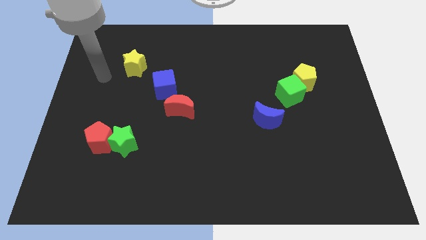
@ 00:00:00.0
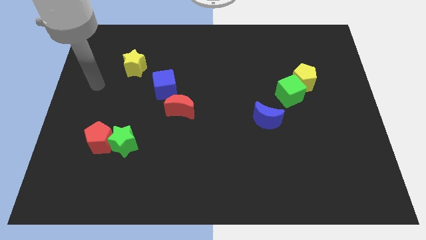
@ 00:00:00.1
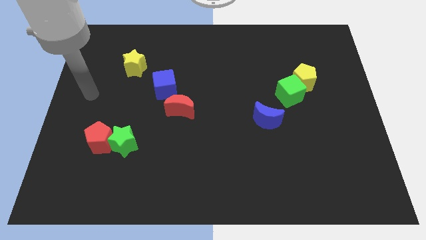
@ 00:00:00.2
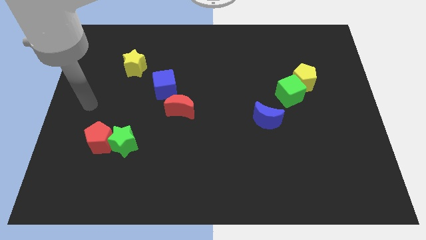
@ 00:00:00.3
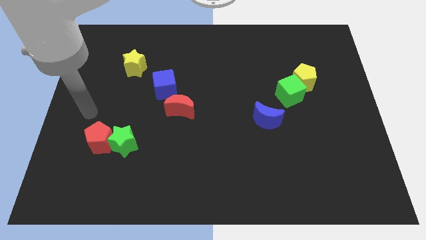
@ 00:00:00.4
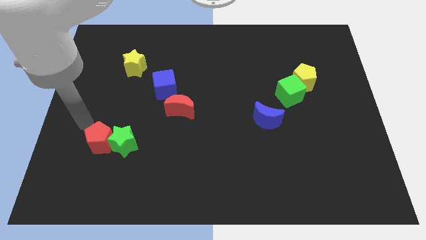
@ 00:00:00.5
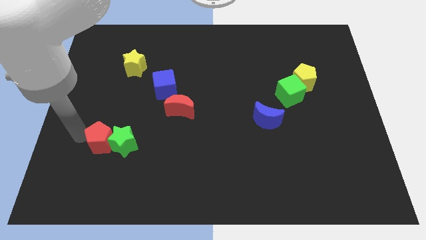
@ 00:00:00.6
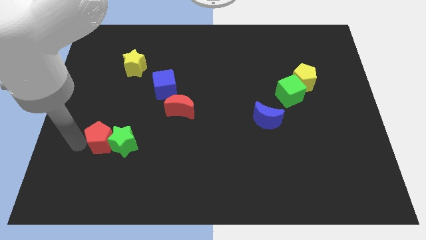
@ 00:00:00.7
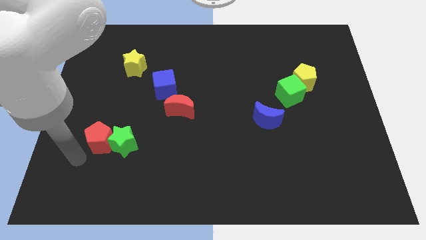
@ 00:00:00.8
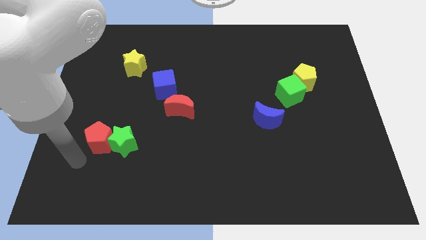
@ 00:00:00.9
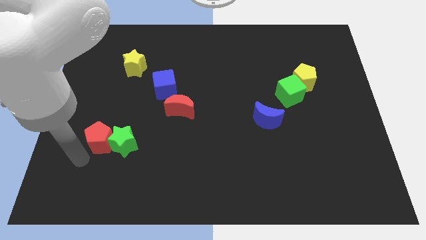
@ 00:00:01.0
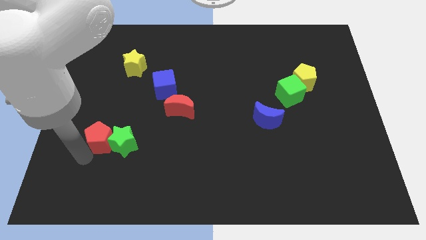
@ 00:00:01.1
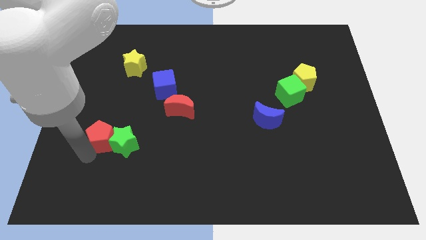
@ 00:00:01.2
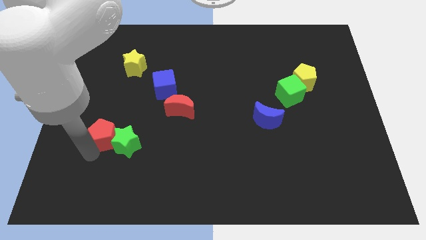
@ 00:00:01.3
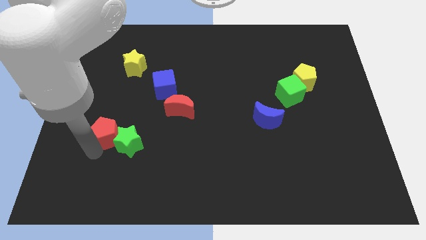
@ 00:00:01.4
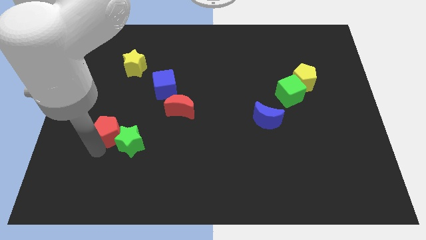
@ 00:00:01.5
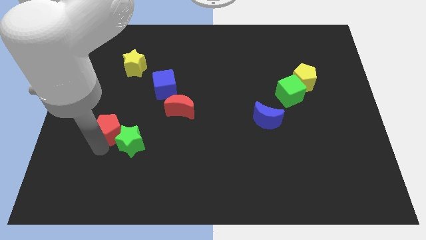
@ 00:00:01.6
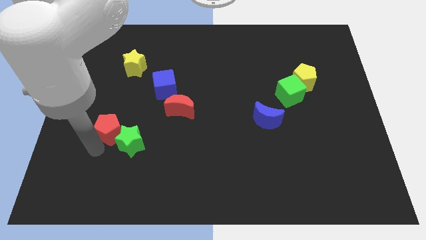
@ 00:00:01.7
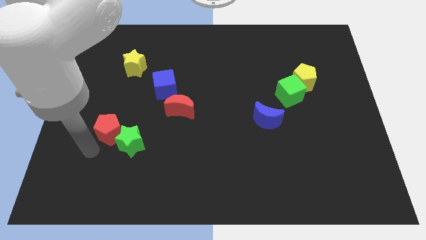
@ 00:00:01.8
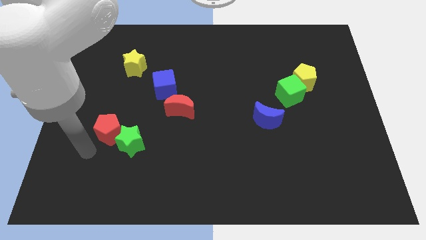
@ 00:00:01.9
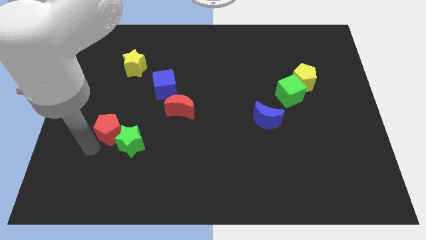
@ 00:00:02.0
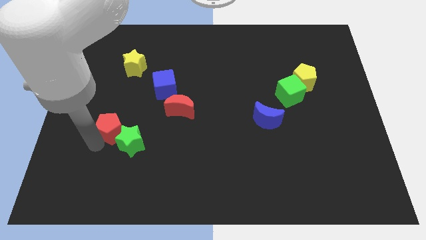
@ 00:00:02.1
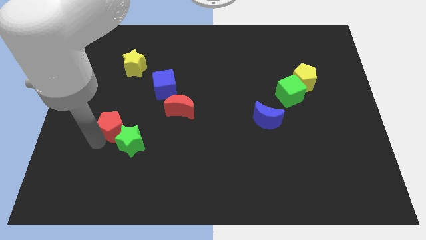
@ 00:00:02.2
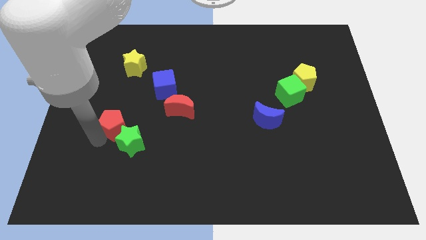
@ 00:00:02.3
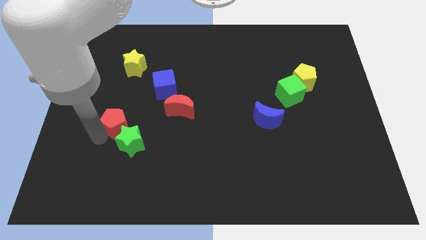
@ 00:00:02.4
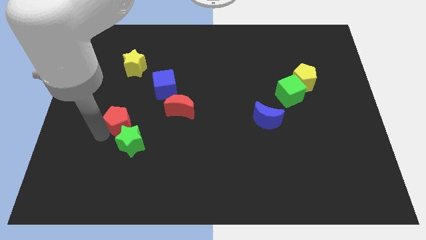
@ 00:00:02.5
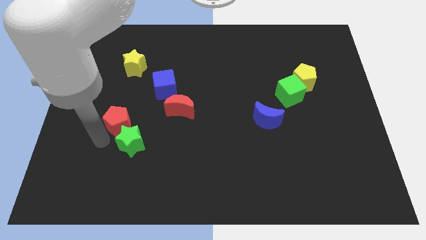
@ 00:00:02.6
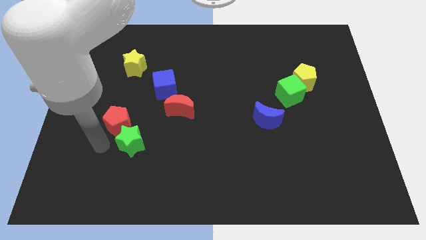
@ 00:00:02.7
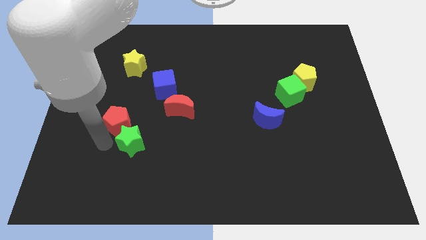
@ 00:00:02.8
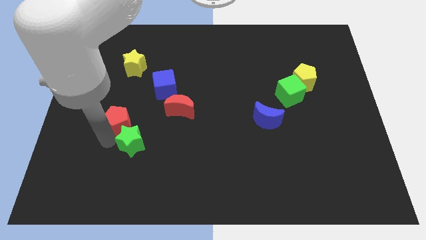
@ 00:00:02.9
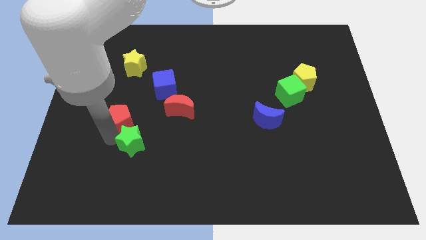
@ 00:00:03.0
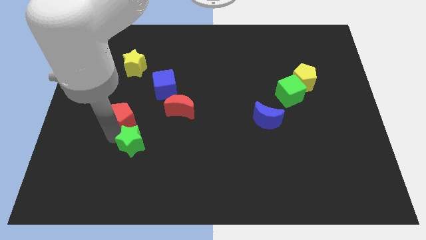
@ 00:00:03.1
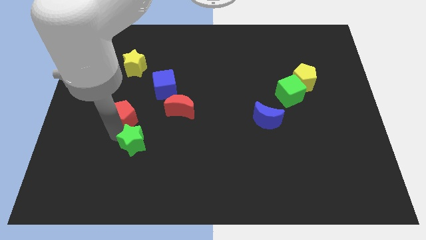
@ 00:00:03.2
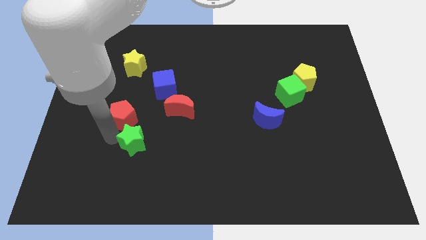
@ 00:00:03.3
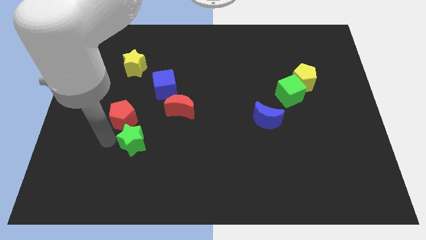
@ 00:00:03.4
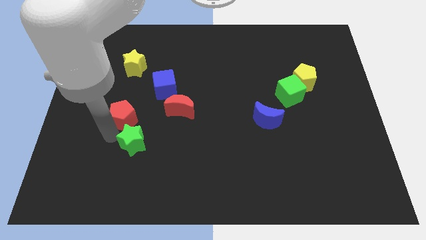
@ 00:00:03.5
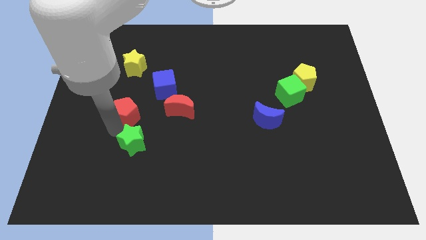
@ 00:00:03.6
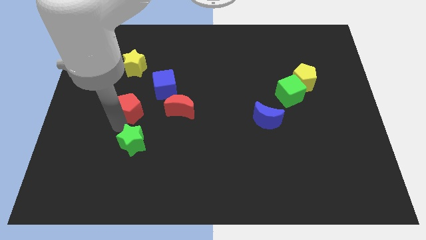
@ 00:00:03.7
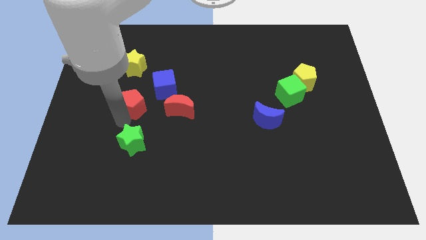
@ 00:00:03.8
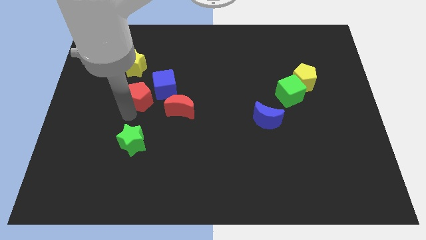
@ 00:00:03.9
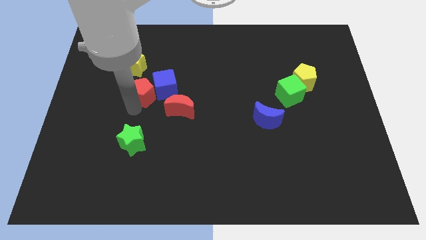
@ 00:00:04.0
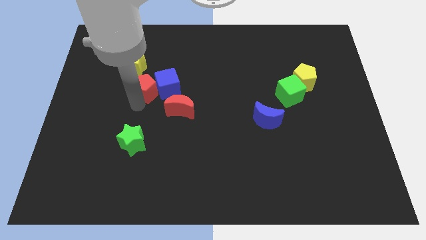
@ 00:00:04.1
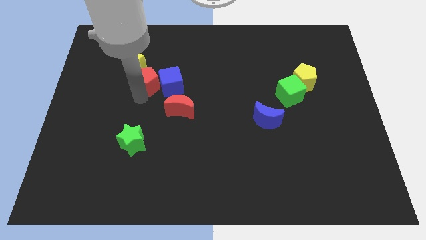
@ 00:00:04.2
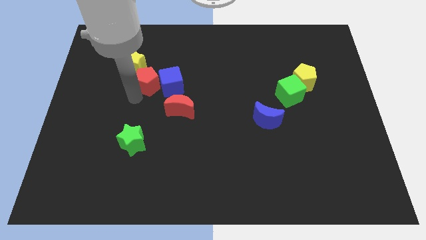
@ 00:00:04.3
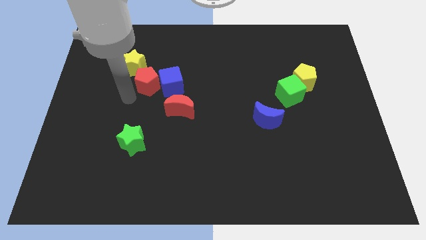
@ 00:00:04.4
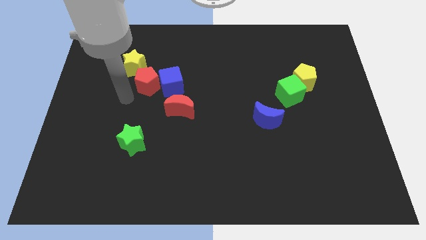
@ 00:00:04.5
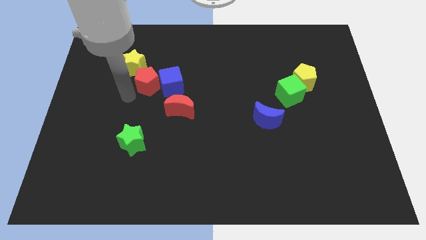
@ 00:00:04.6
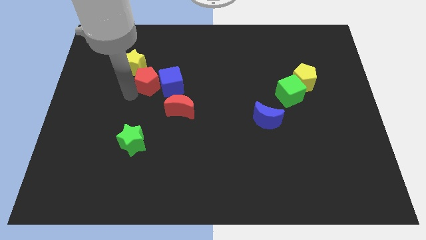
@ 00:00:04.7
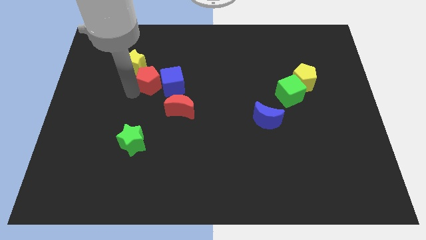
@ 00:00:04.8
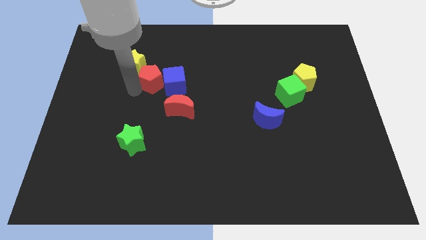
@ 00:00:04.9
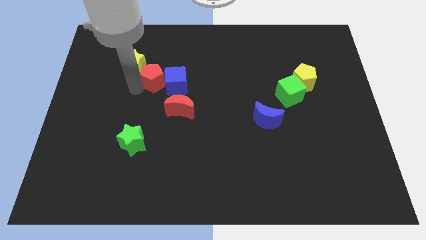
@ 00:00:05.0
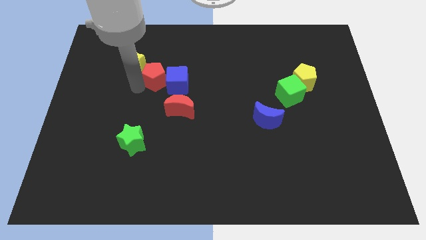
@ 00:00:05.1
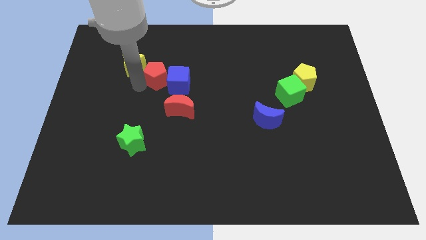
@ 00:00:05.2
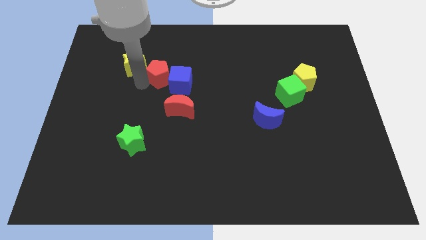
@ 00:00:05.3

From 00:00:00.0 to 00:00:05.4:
slide the red pentagon upwards and right diagonally

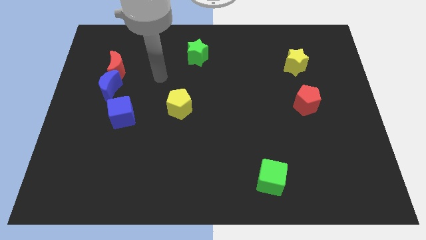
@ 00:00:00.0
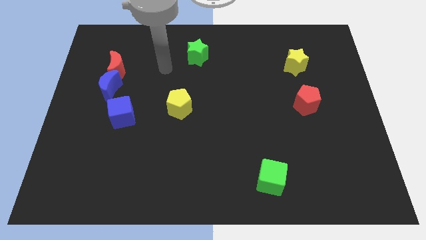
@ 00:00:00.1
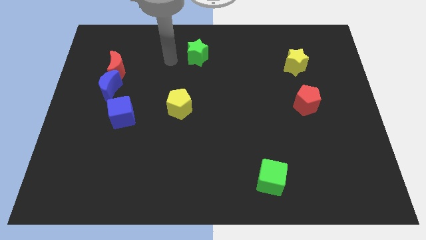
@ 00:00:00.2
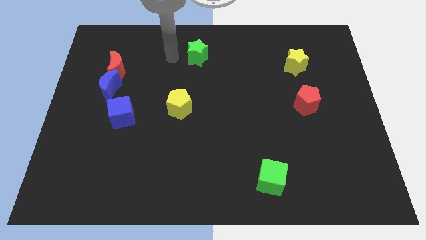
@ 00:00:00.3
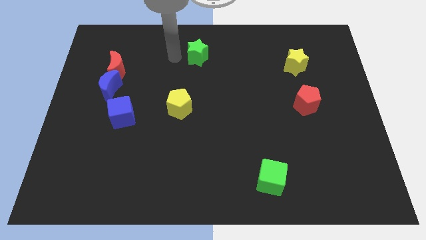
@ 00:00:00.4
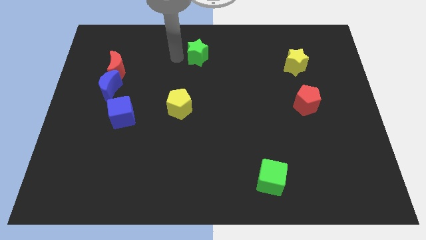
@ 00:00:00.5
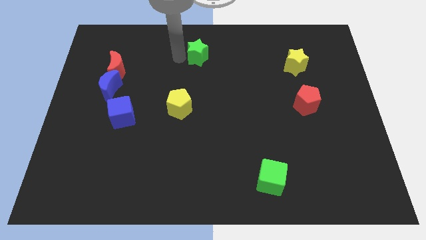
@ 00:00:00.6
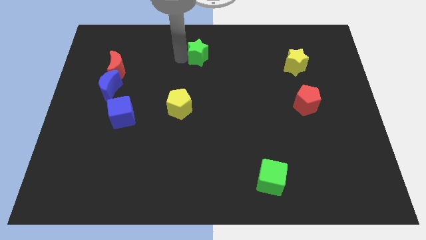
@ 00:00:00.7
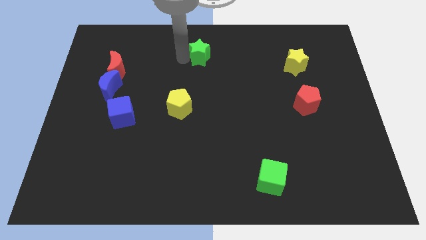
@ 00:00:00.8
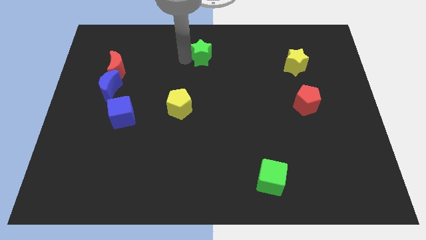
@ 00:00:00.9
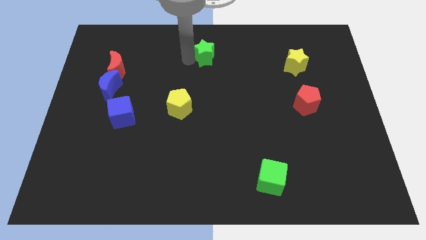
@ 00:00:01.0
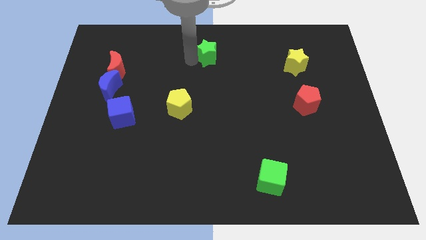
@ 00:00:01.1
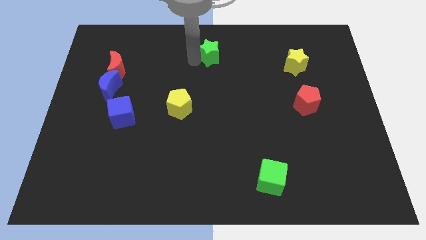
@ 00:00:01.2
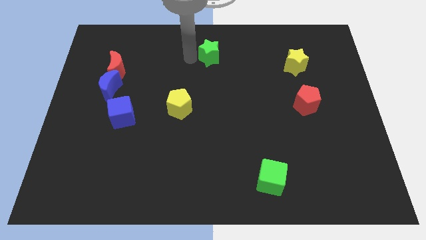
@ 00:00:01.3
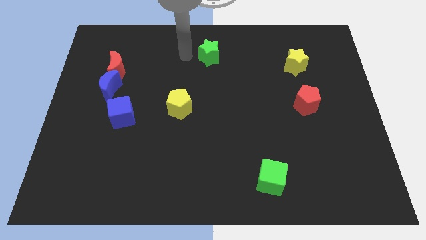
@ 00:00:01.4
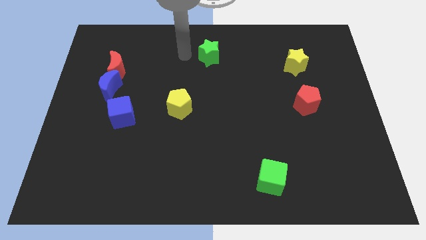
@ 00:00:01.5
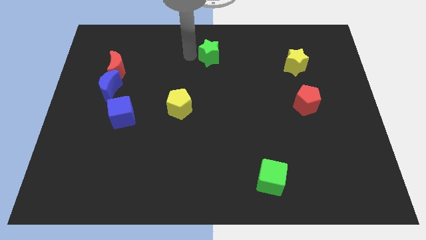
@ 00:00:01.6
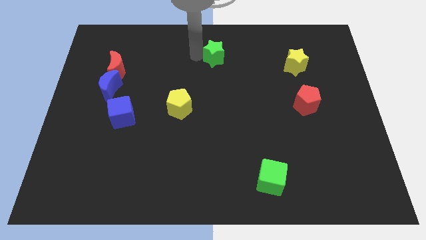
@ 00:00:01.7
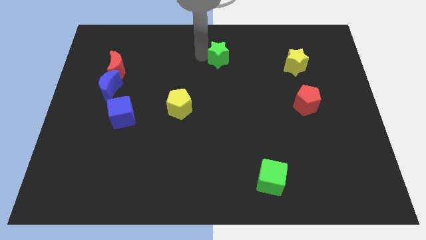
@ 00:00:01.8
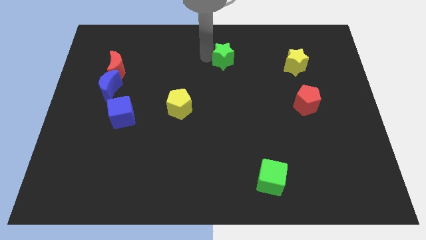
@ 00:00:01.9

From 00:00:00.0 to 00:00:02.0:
push the green star right slightly

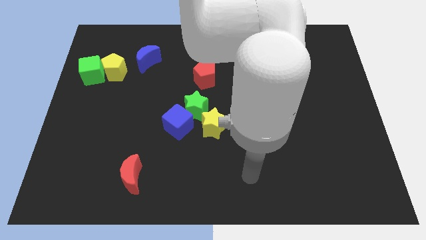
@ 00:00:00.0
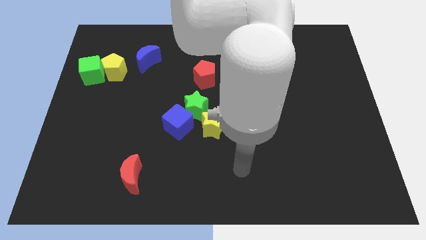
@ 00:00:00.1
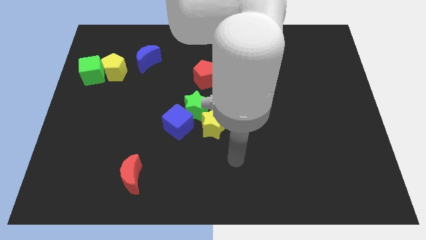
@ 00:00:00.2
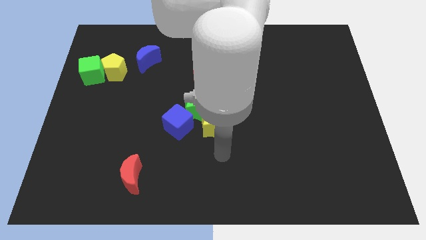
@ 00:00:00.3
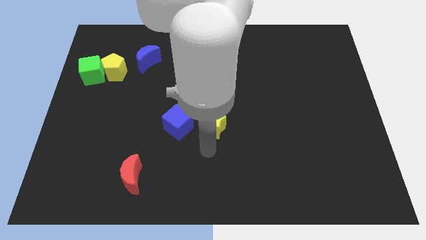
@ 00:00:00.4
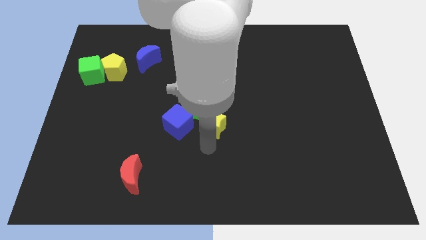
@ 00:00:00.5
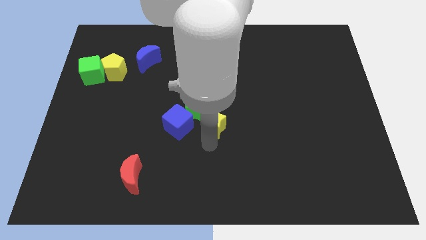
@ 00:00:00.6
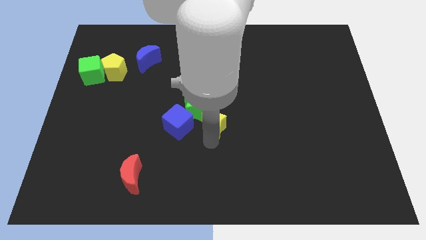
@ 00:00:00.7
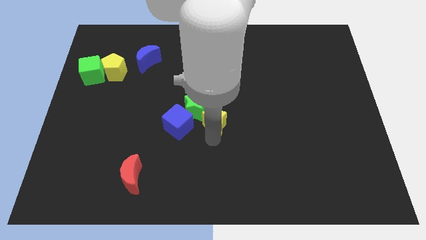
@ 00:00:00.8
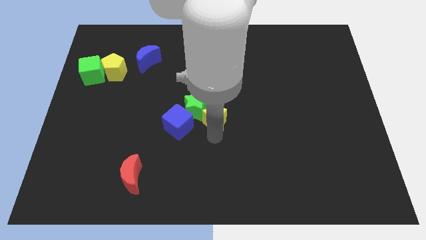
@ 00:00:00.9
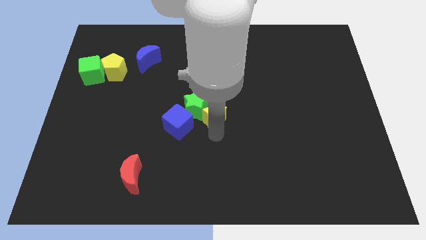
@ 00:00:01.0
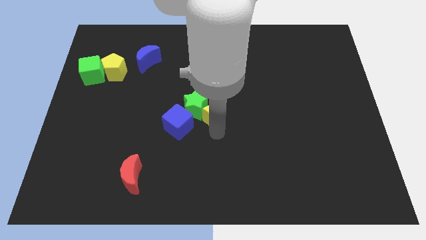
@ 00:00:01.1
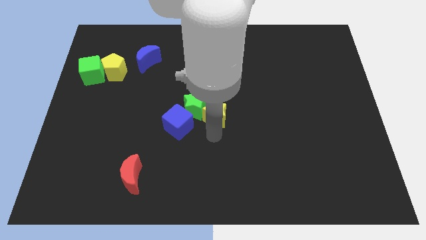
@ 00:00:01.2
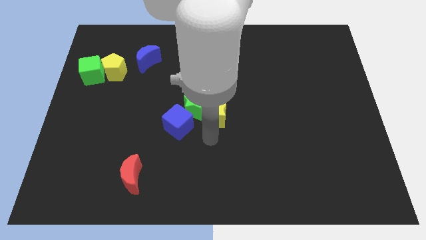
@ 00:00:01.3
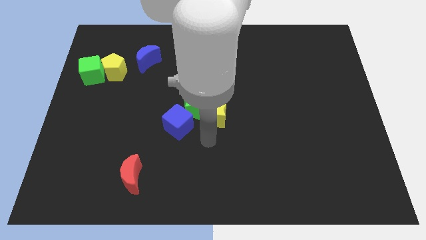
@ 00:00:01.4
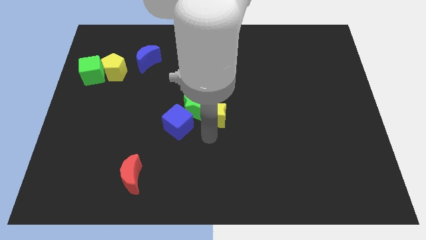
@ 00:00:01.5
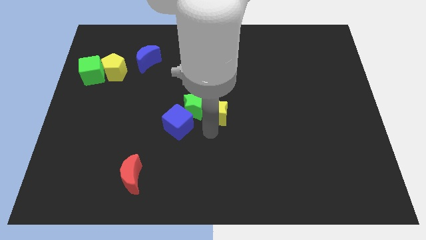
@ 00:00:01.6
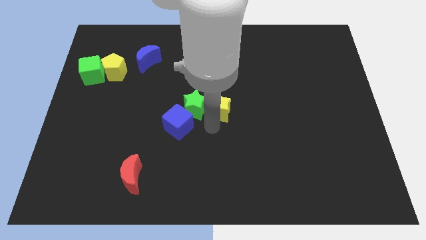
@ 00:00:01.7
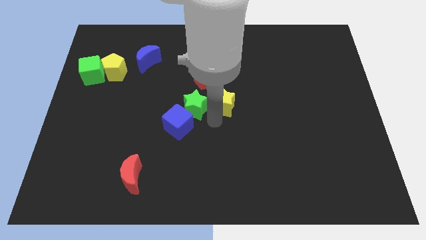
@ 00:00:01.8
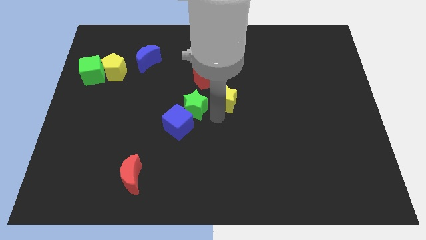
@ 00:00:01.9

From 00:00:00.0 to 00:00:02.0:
slide the yellow star up slightly
